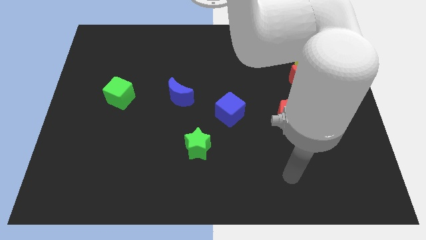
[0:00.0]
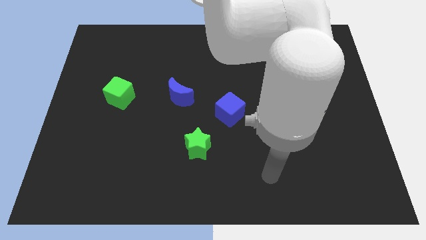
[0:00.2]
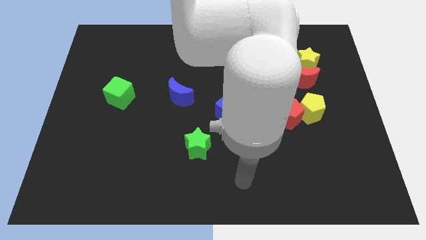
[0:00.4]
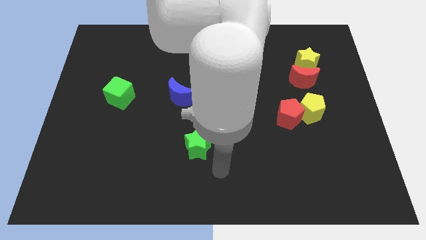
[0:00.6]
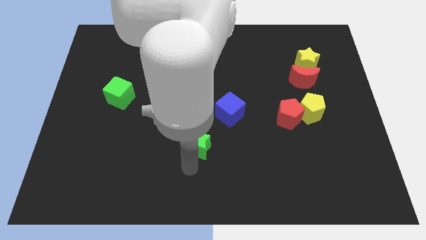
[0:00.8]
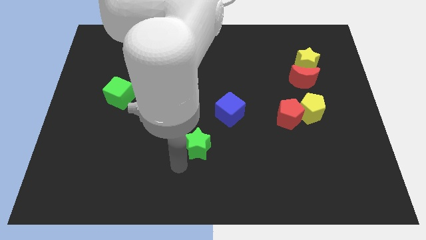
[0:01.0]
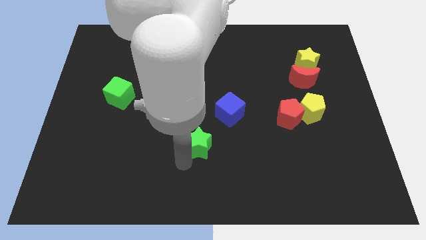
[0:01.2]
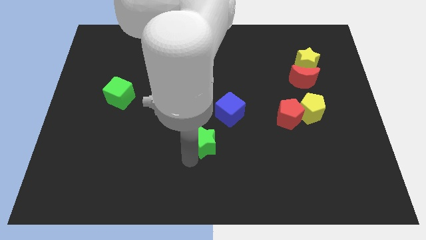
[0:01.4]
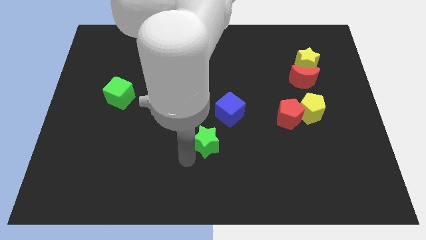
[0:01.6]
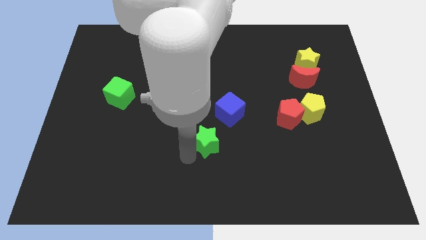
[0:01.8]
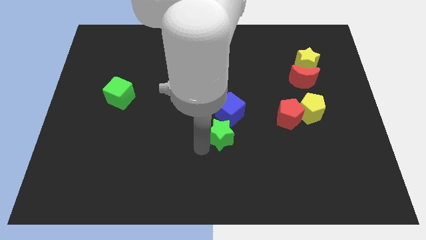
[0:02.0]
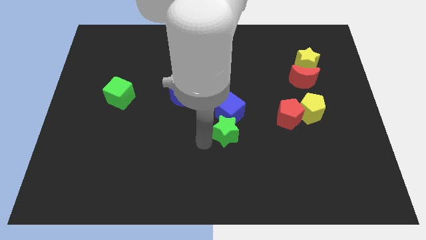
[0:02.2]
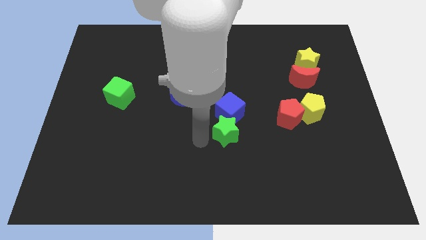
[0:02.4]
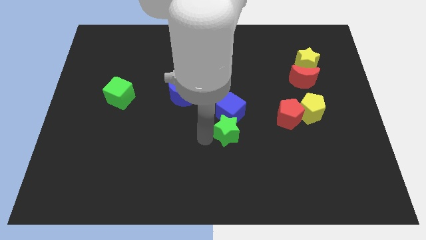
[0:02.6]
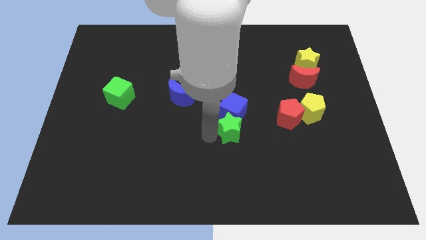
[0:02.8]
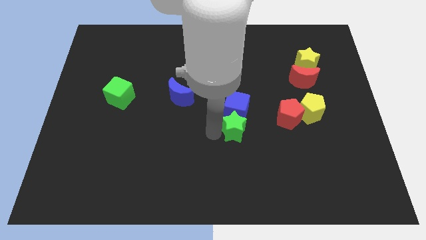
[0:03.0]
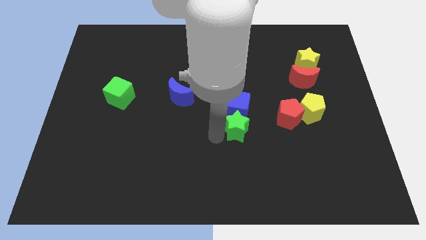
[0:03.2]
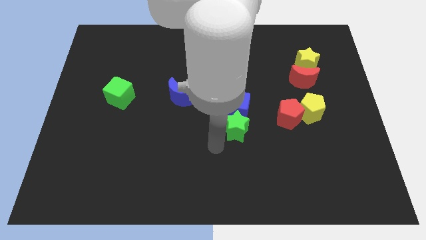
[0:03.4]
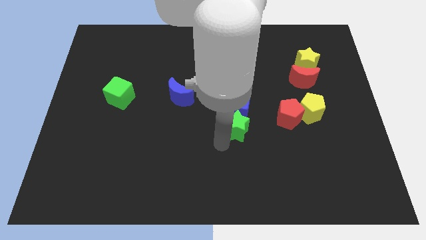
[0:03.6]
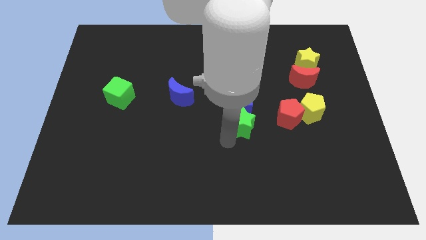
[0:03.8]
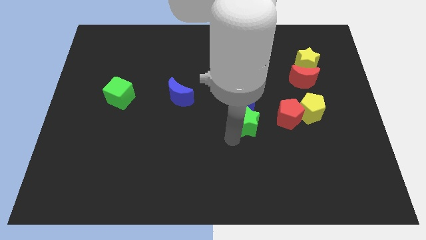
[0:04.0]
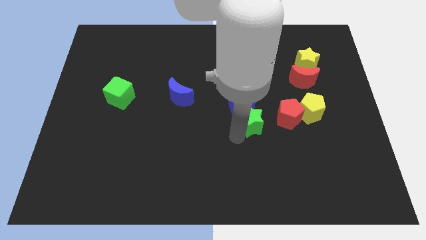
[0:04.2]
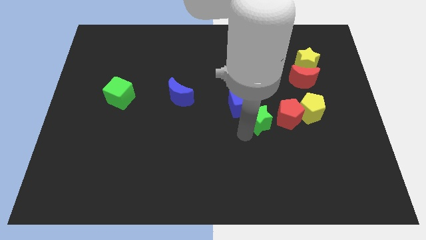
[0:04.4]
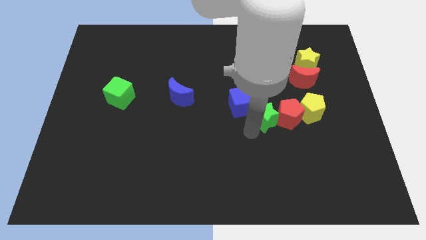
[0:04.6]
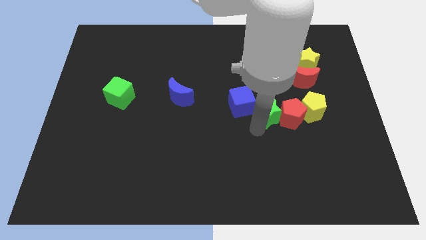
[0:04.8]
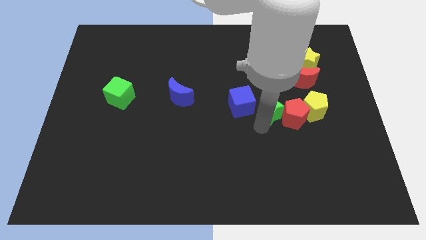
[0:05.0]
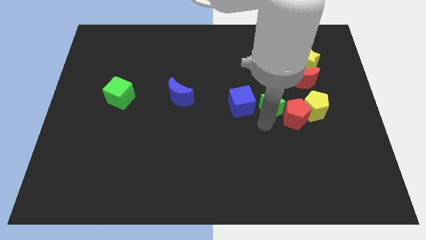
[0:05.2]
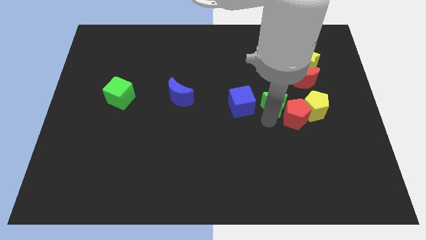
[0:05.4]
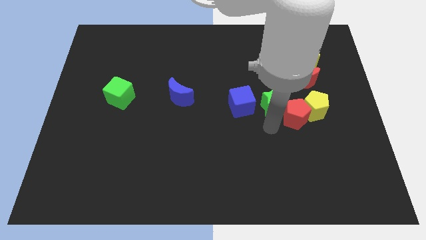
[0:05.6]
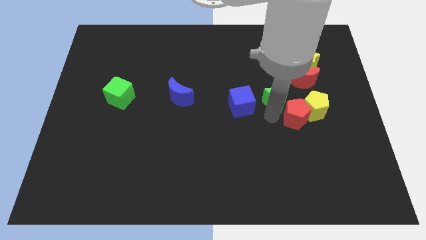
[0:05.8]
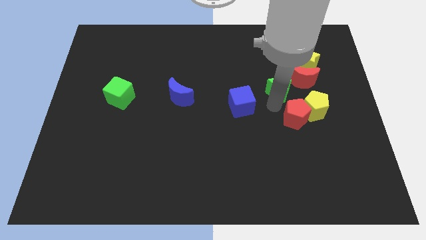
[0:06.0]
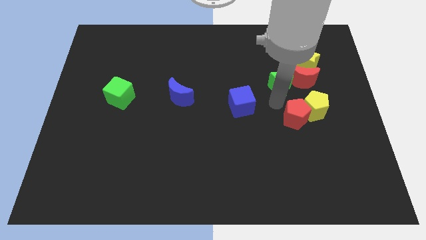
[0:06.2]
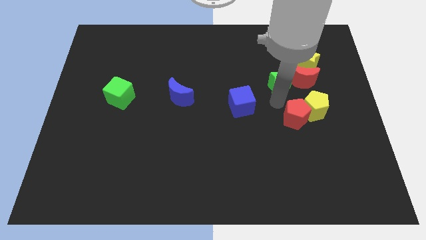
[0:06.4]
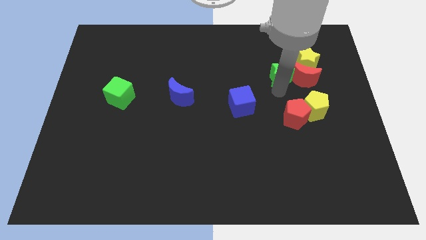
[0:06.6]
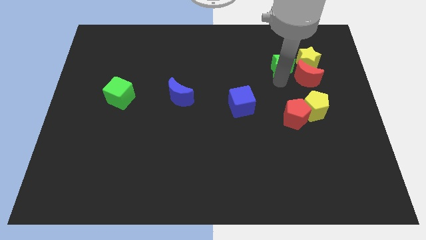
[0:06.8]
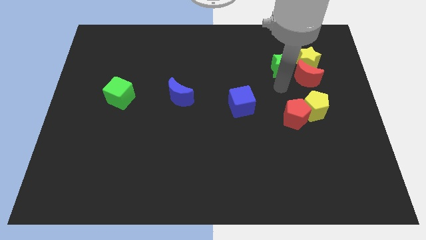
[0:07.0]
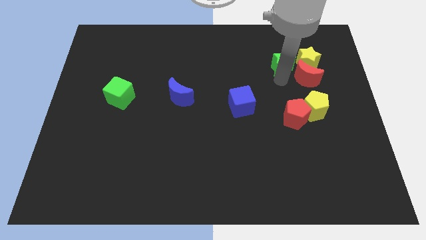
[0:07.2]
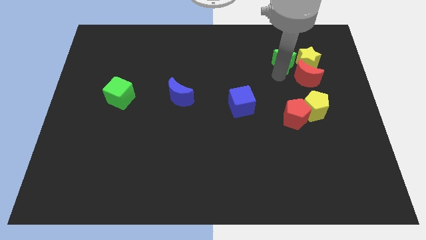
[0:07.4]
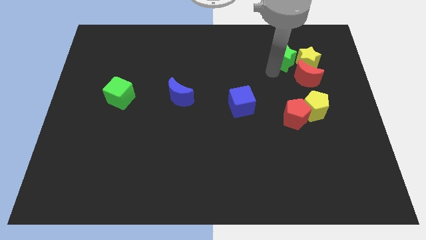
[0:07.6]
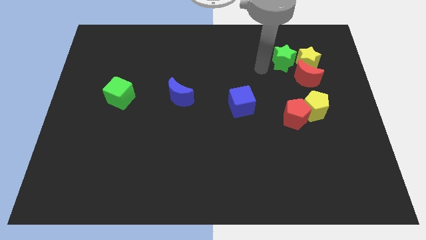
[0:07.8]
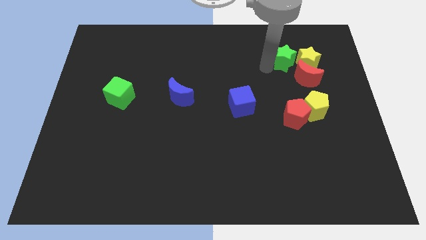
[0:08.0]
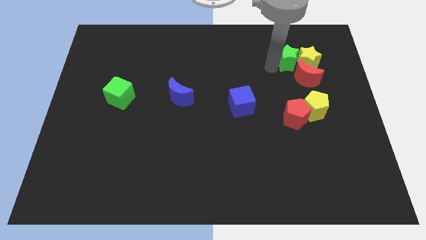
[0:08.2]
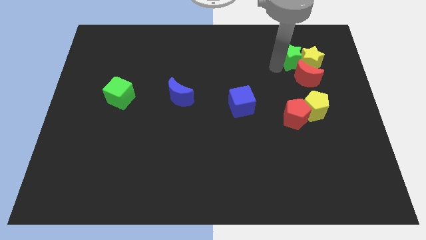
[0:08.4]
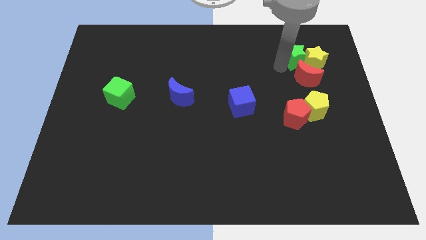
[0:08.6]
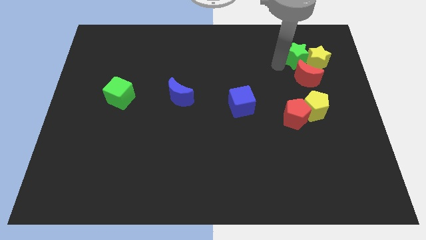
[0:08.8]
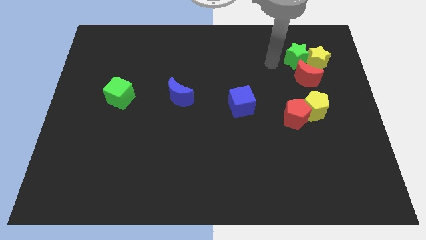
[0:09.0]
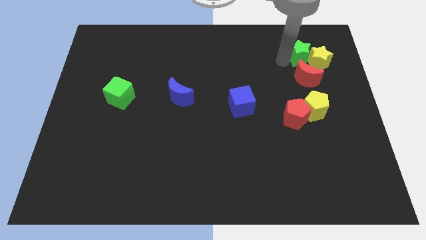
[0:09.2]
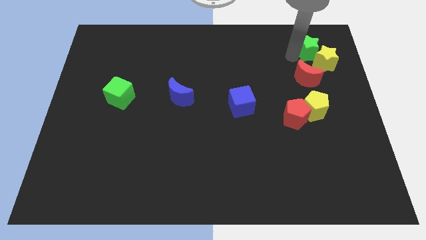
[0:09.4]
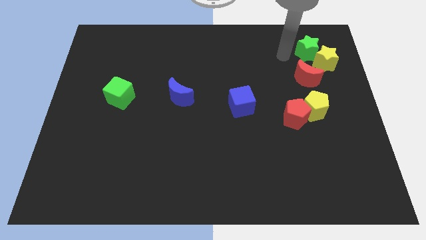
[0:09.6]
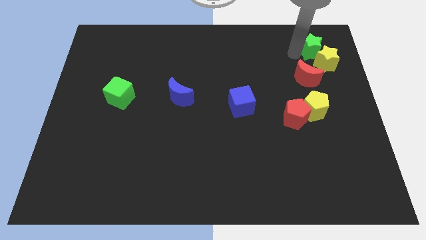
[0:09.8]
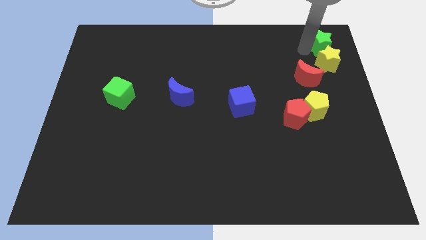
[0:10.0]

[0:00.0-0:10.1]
move the green star to the top right corner

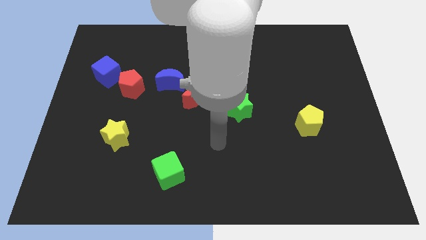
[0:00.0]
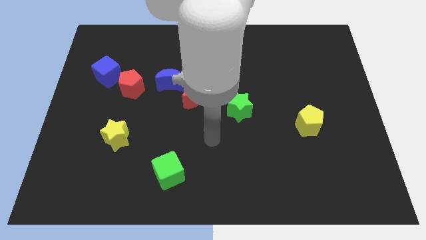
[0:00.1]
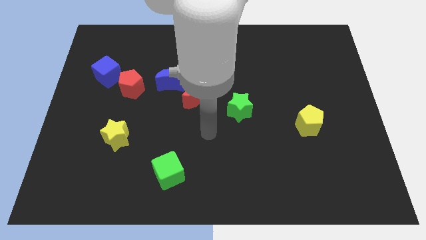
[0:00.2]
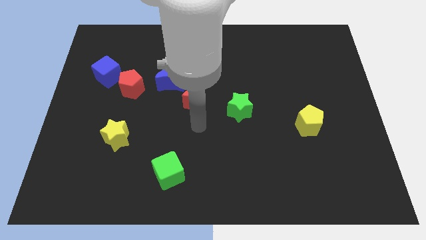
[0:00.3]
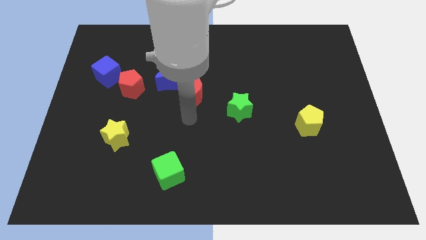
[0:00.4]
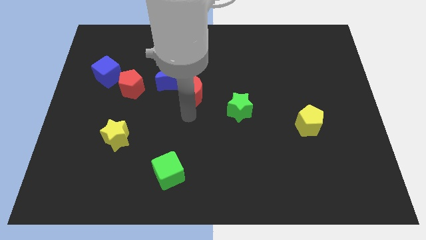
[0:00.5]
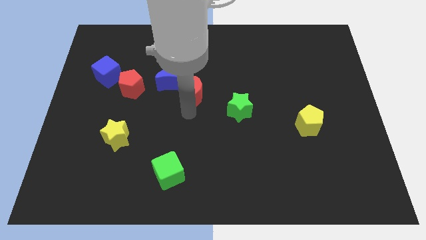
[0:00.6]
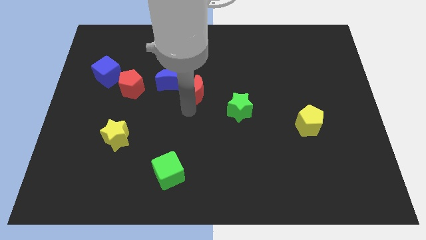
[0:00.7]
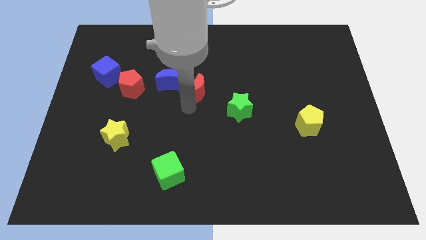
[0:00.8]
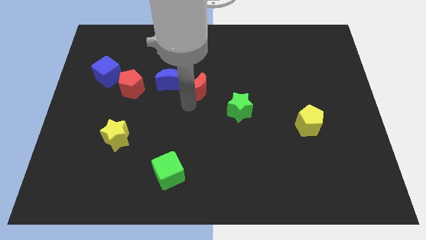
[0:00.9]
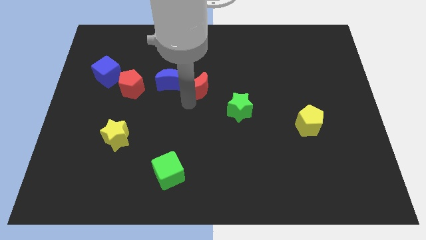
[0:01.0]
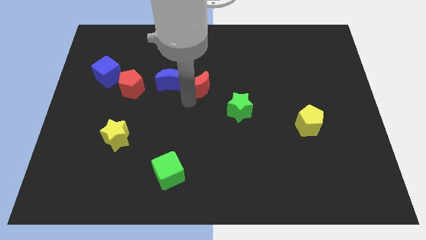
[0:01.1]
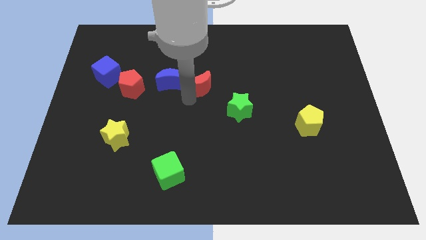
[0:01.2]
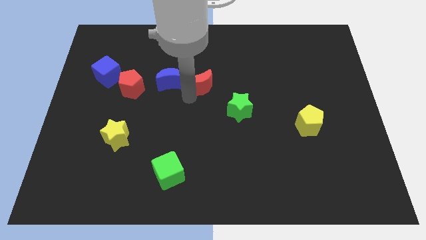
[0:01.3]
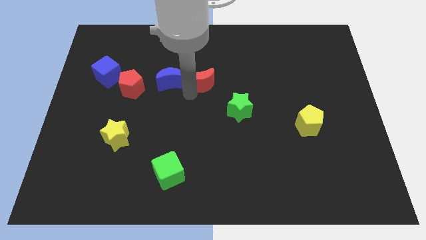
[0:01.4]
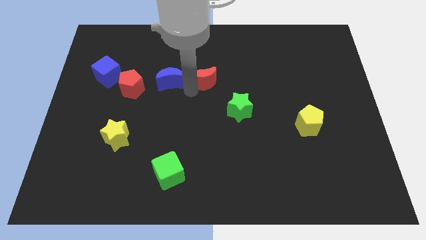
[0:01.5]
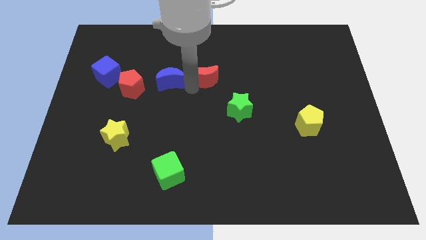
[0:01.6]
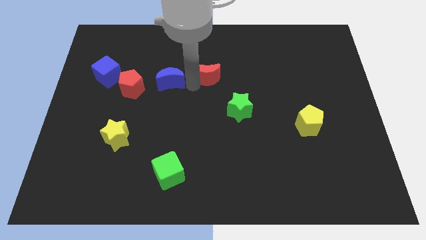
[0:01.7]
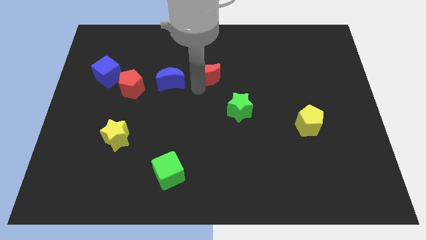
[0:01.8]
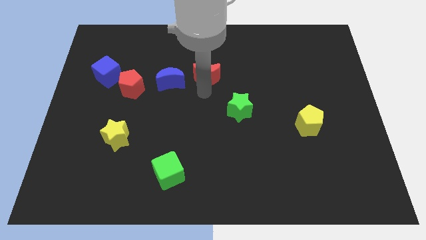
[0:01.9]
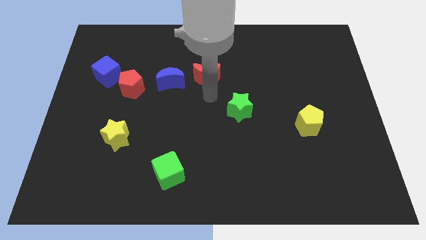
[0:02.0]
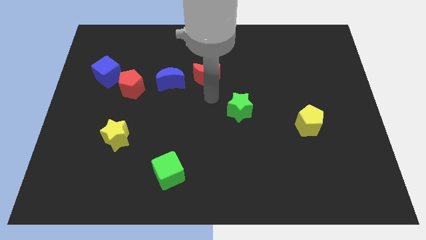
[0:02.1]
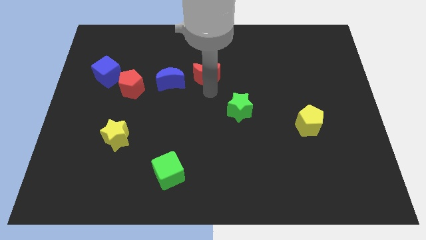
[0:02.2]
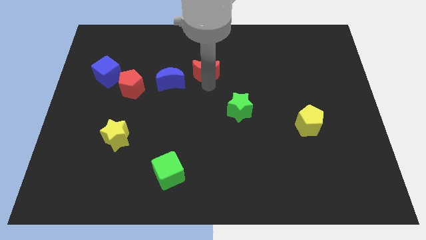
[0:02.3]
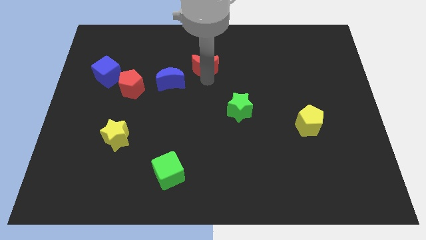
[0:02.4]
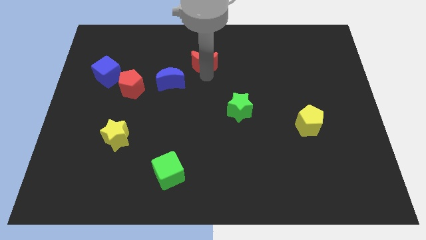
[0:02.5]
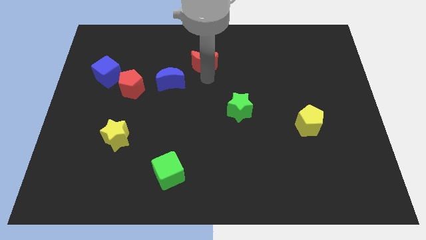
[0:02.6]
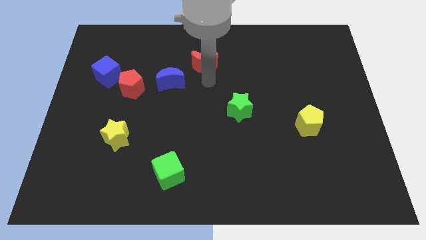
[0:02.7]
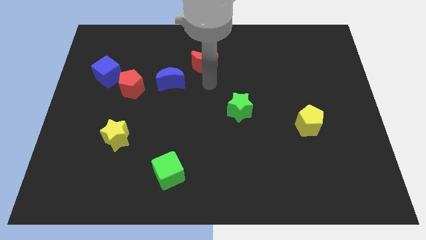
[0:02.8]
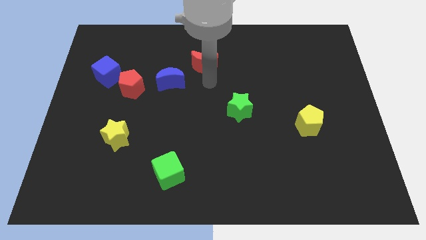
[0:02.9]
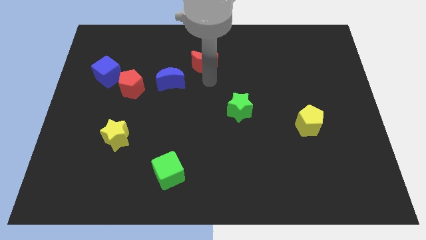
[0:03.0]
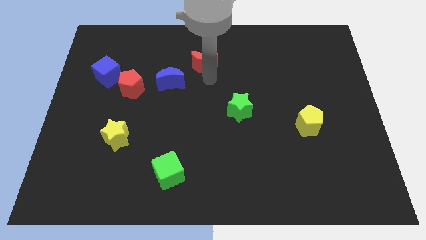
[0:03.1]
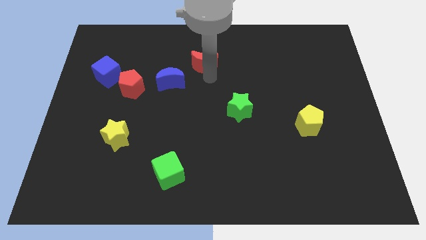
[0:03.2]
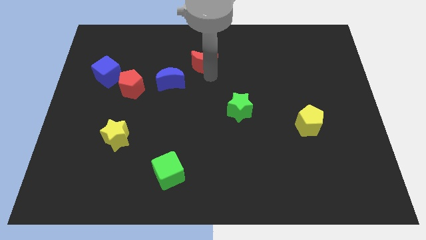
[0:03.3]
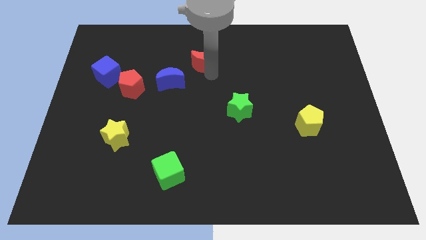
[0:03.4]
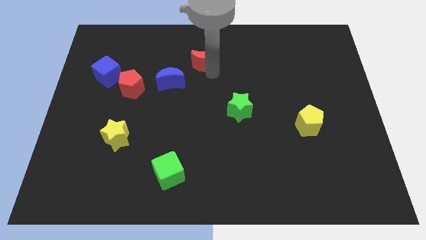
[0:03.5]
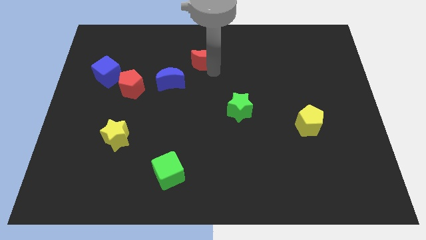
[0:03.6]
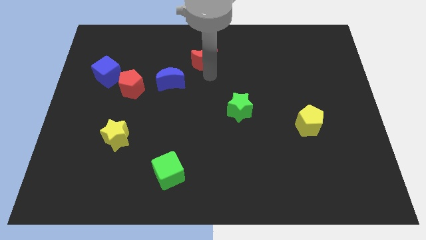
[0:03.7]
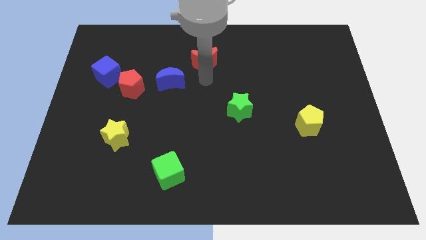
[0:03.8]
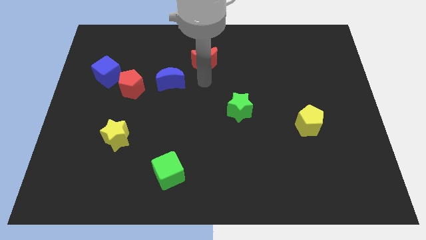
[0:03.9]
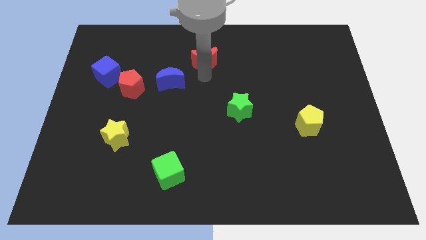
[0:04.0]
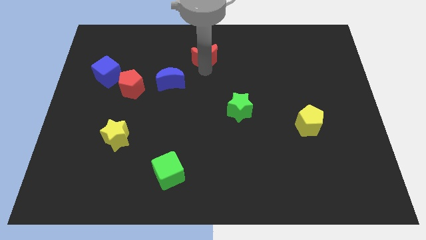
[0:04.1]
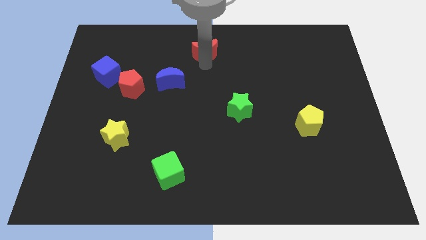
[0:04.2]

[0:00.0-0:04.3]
move the red moon to the top side
